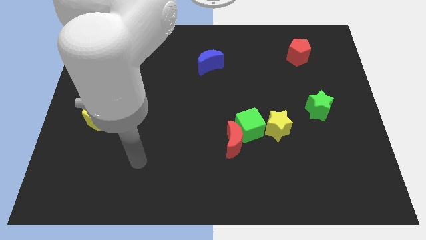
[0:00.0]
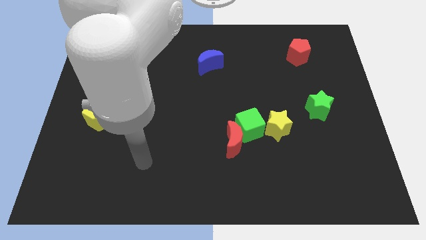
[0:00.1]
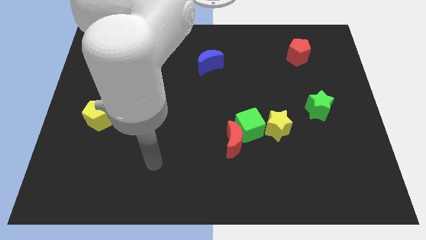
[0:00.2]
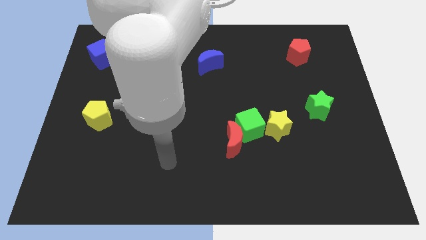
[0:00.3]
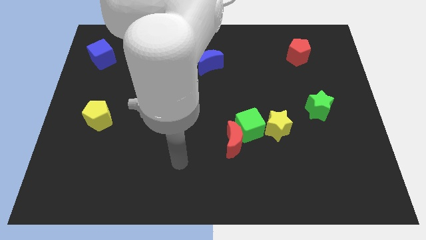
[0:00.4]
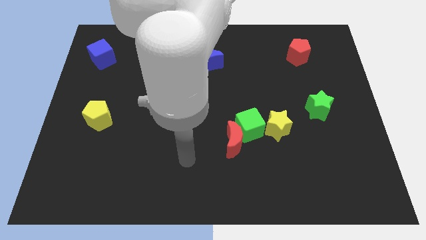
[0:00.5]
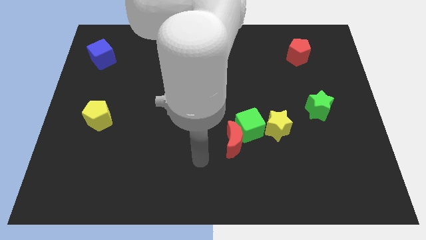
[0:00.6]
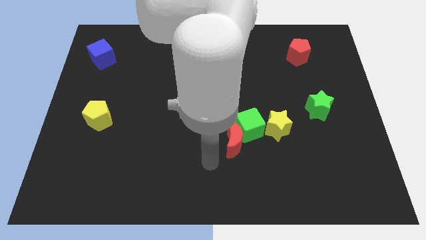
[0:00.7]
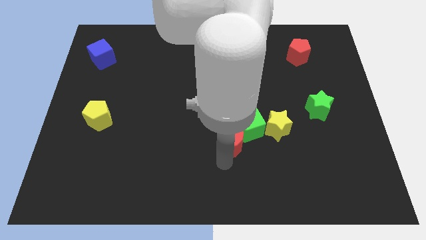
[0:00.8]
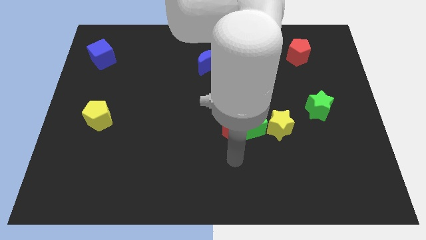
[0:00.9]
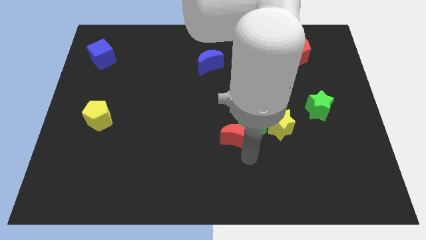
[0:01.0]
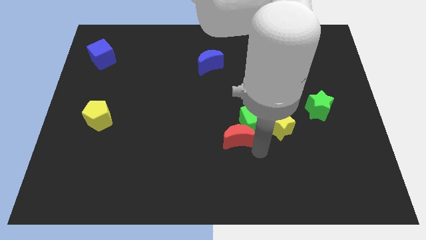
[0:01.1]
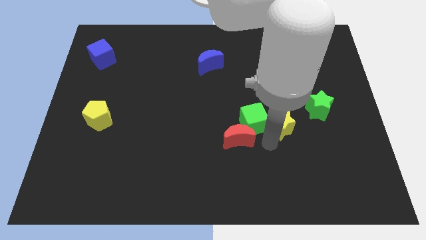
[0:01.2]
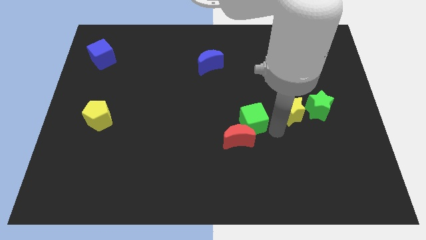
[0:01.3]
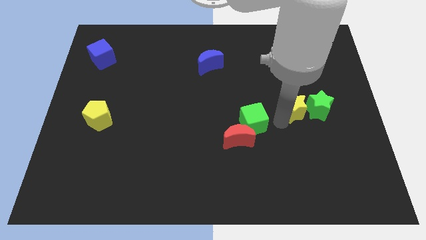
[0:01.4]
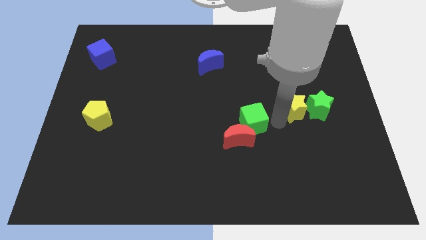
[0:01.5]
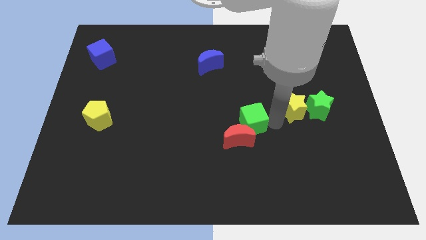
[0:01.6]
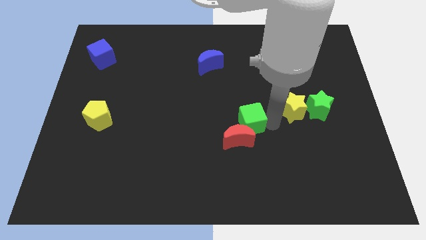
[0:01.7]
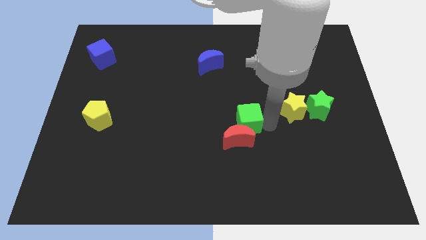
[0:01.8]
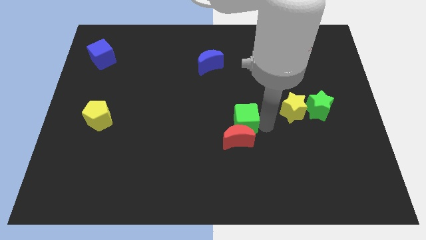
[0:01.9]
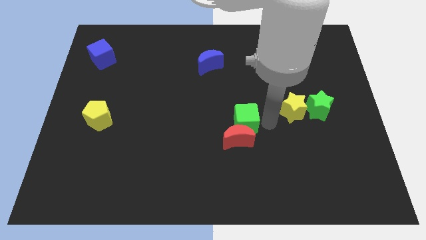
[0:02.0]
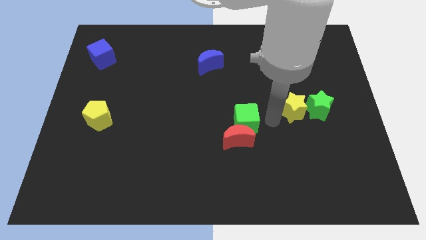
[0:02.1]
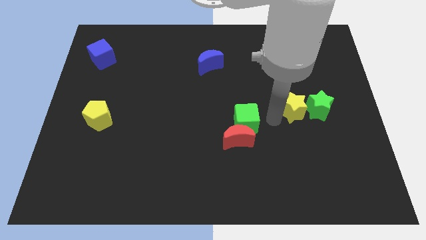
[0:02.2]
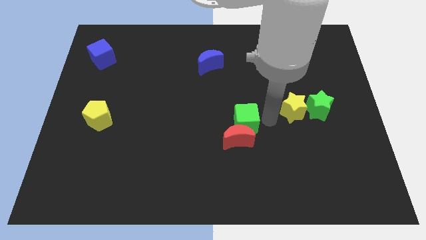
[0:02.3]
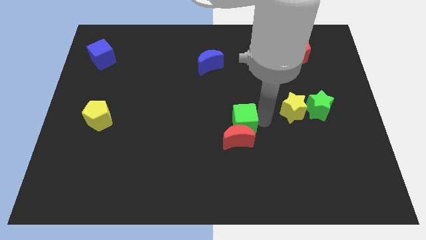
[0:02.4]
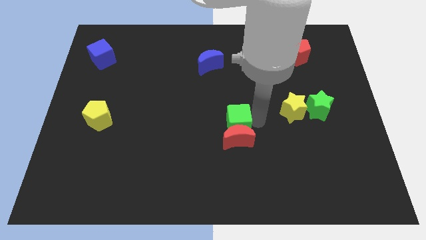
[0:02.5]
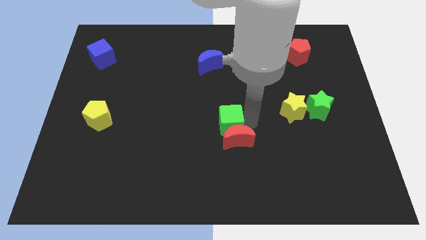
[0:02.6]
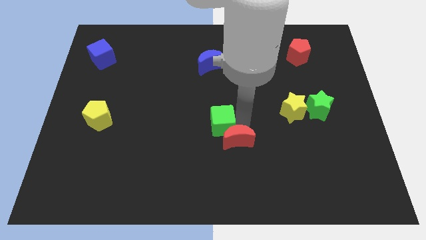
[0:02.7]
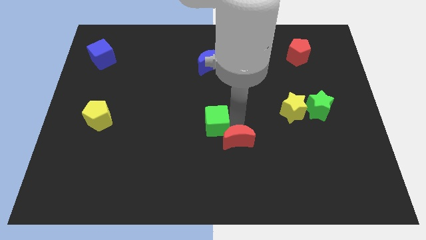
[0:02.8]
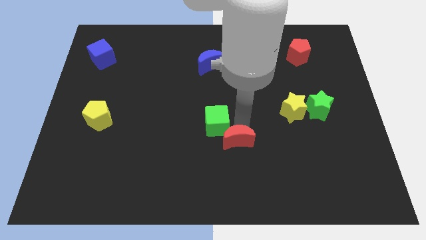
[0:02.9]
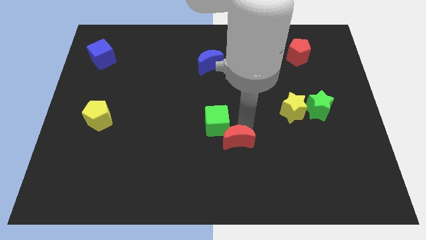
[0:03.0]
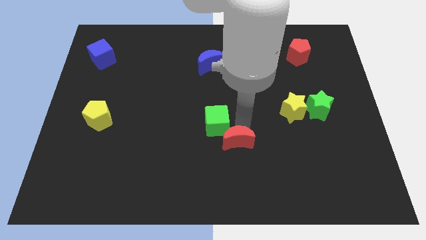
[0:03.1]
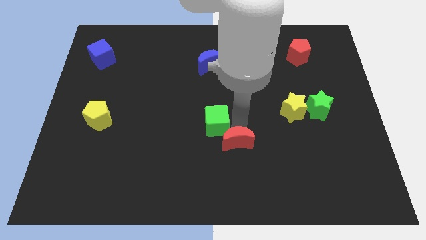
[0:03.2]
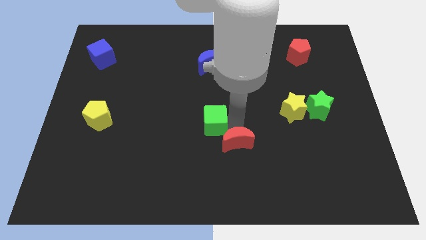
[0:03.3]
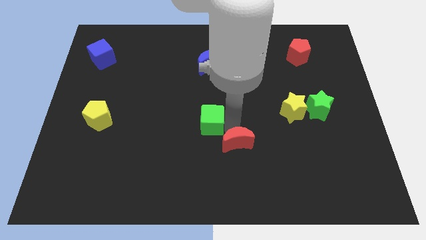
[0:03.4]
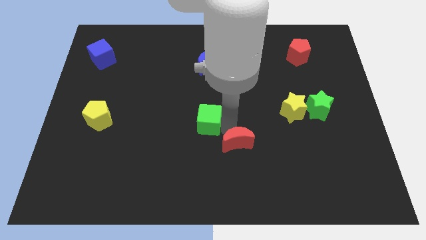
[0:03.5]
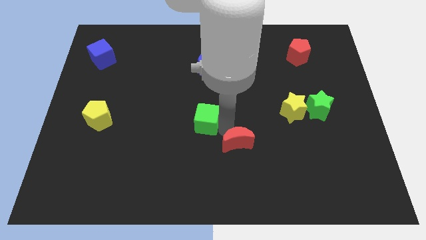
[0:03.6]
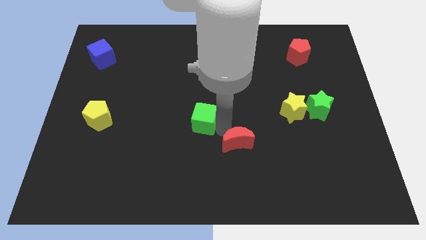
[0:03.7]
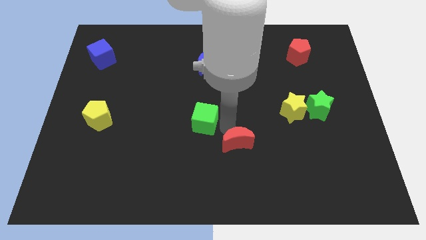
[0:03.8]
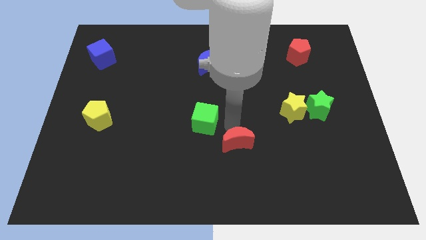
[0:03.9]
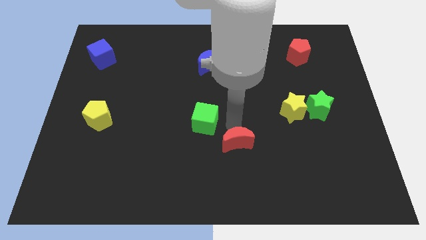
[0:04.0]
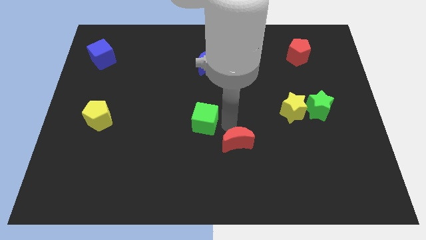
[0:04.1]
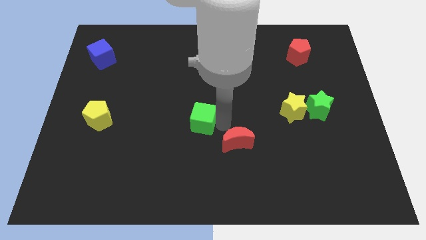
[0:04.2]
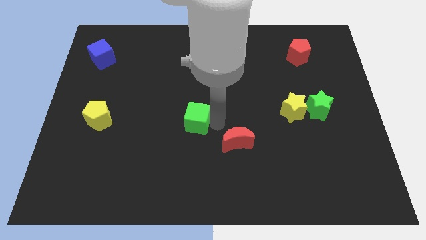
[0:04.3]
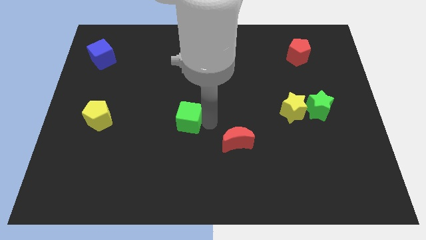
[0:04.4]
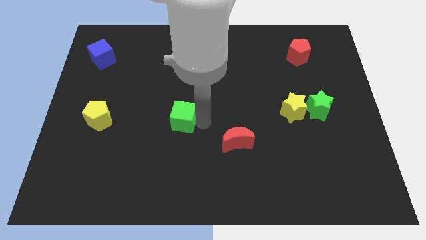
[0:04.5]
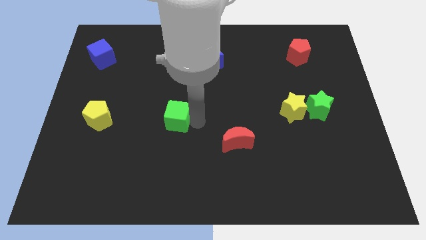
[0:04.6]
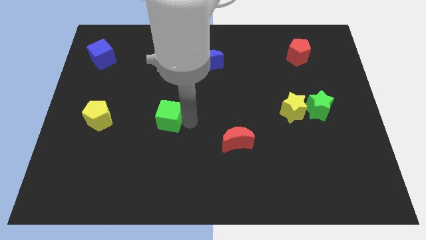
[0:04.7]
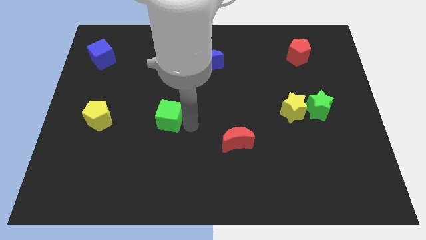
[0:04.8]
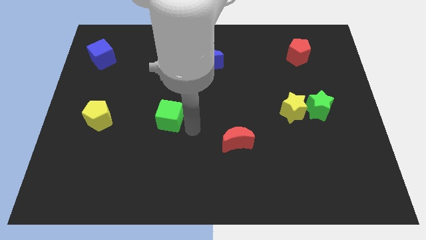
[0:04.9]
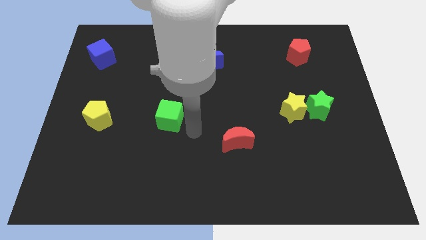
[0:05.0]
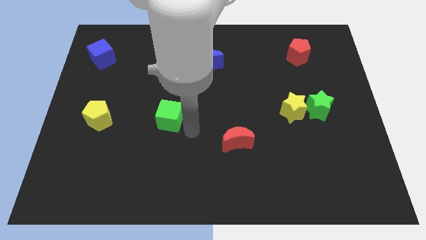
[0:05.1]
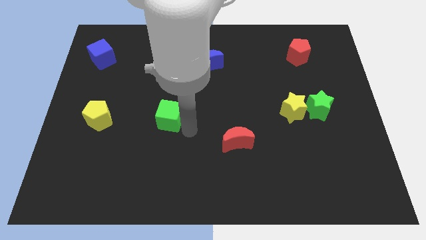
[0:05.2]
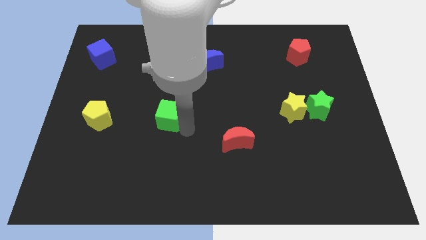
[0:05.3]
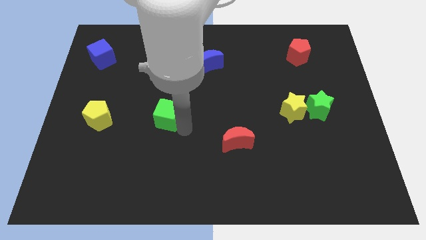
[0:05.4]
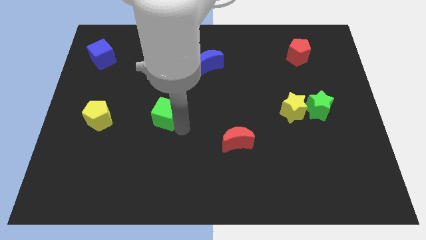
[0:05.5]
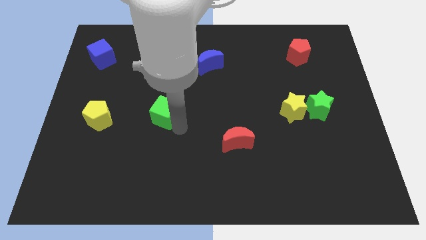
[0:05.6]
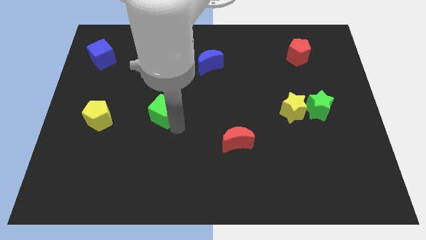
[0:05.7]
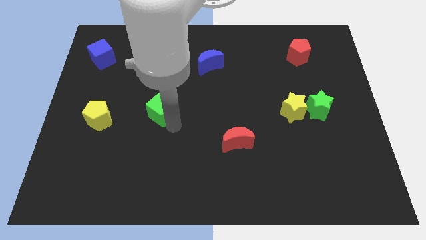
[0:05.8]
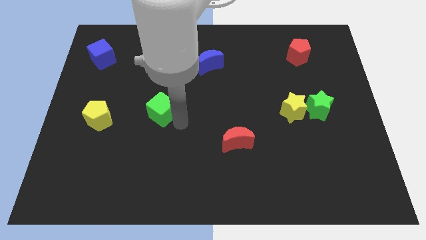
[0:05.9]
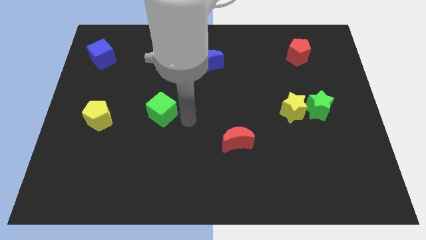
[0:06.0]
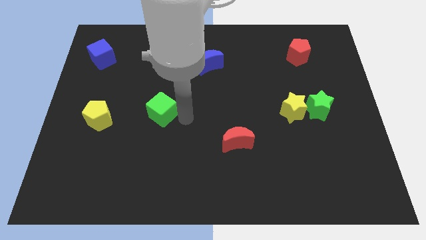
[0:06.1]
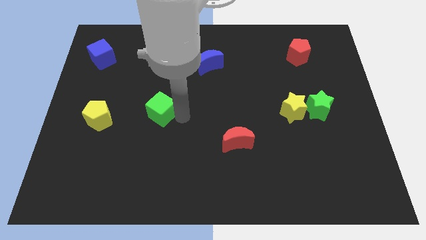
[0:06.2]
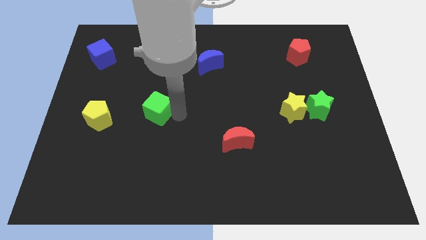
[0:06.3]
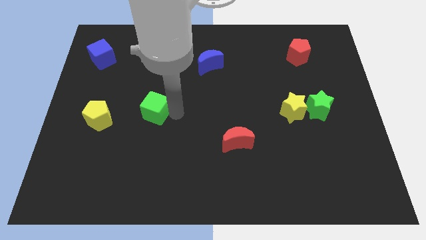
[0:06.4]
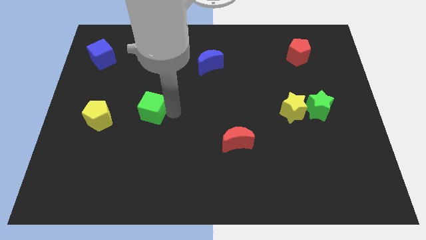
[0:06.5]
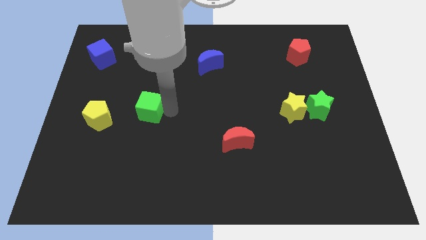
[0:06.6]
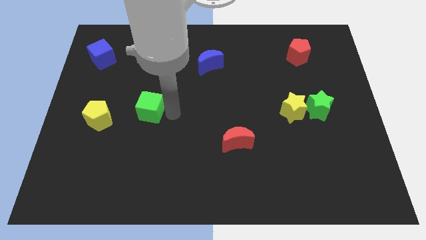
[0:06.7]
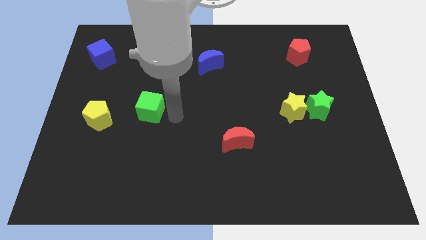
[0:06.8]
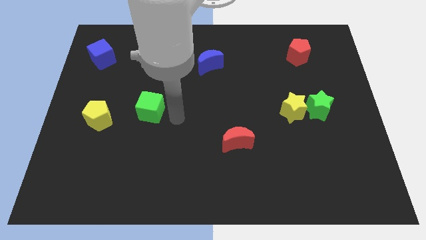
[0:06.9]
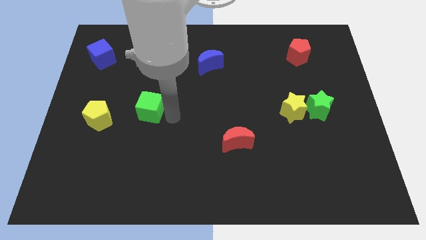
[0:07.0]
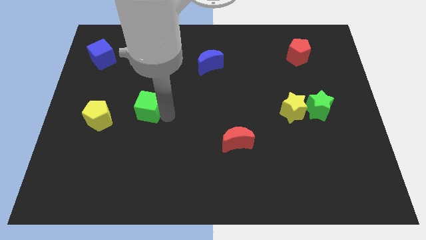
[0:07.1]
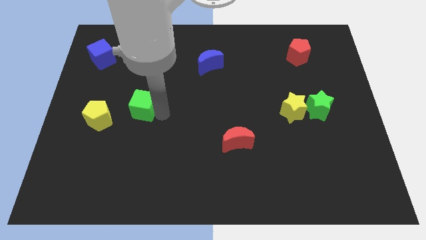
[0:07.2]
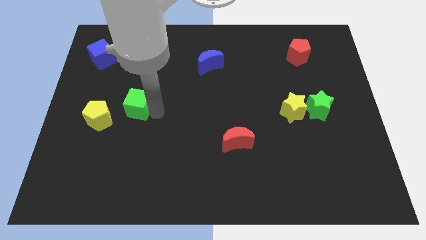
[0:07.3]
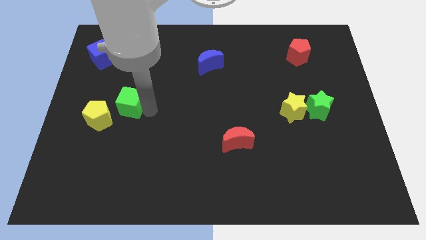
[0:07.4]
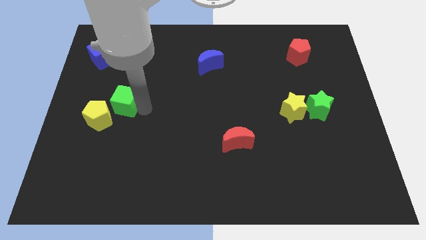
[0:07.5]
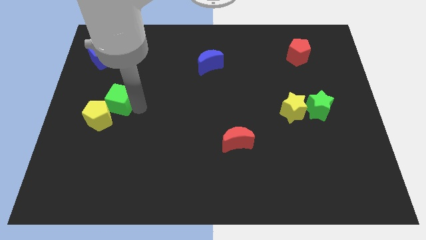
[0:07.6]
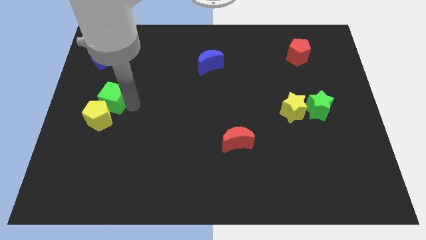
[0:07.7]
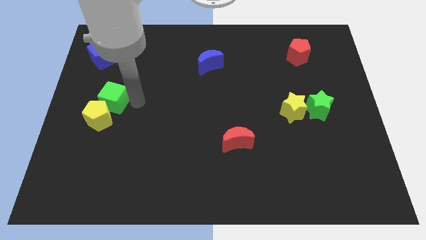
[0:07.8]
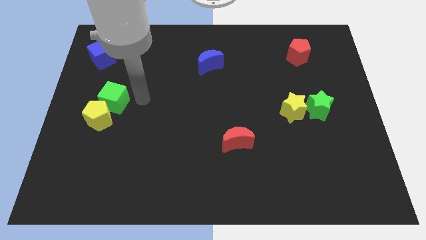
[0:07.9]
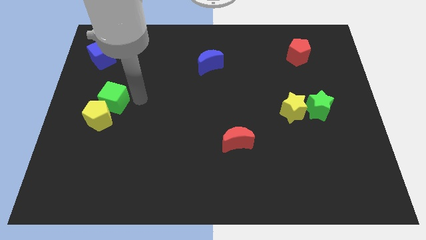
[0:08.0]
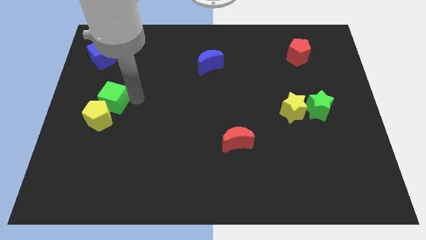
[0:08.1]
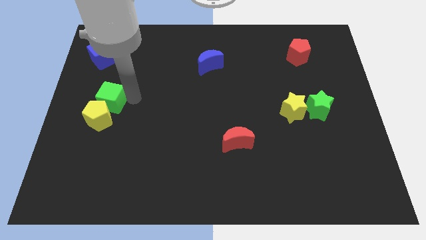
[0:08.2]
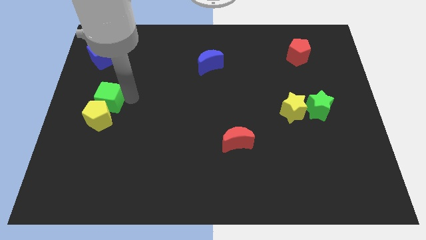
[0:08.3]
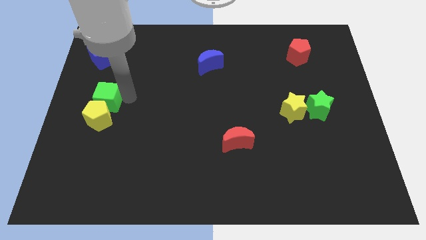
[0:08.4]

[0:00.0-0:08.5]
move the green cube to the center left
